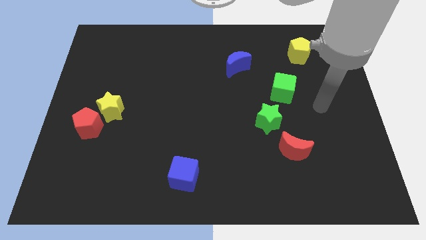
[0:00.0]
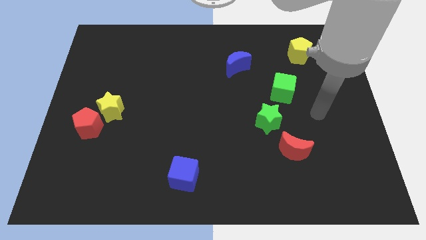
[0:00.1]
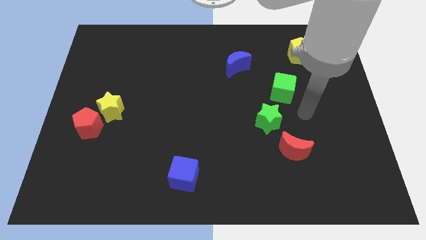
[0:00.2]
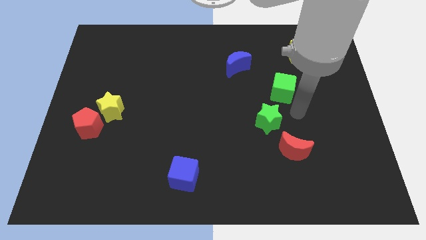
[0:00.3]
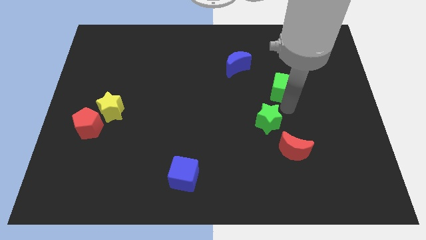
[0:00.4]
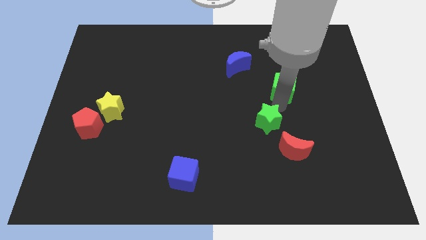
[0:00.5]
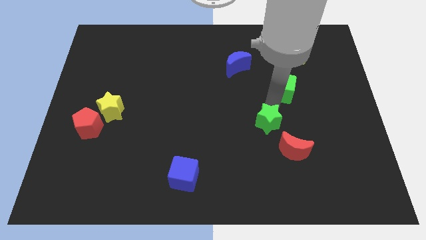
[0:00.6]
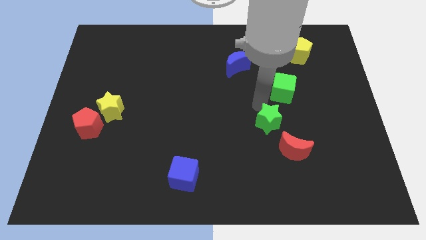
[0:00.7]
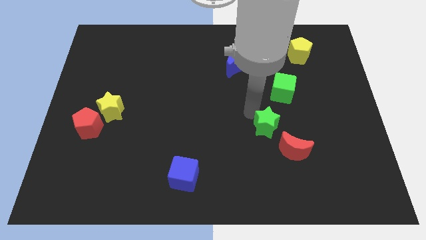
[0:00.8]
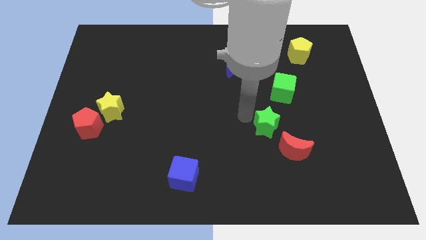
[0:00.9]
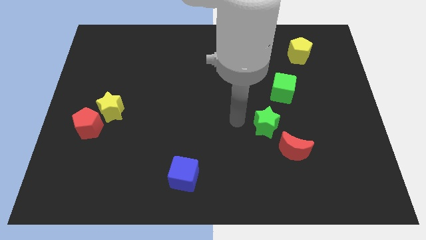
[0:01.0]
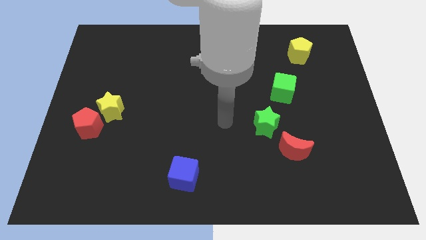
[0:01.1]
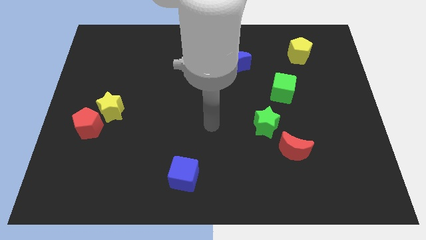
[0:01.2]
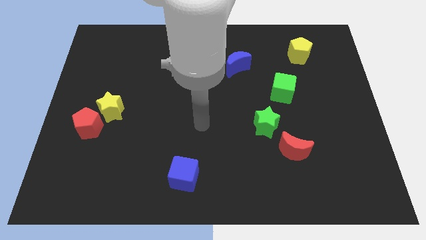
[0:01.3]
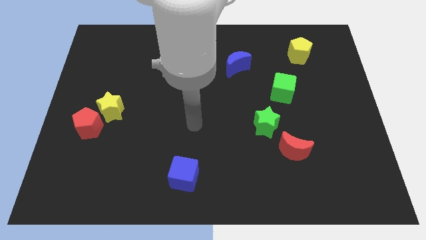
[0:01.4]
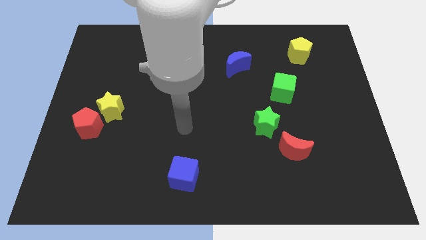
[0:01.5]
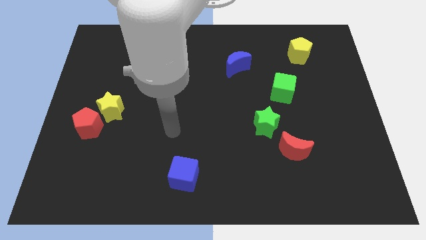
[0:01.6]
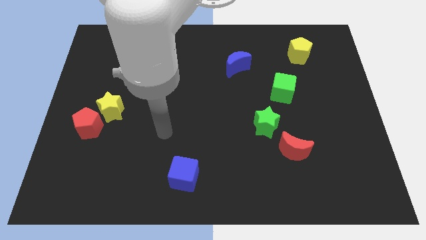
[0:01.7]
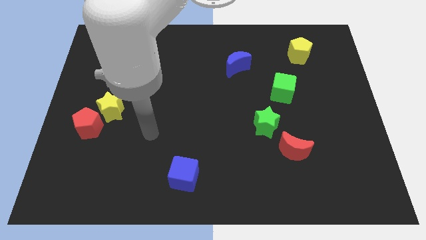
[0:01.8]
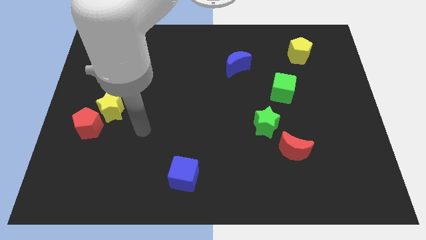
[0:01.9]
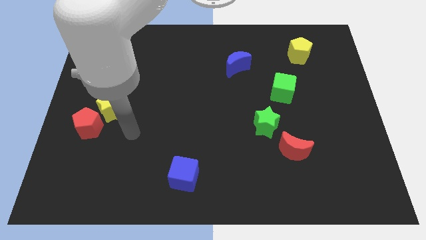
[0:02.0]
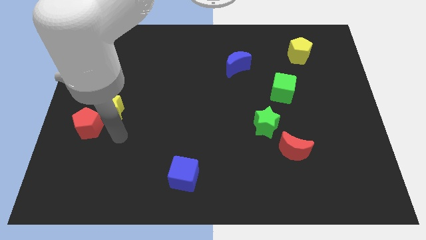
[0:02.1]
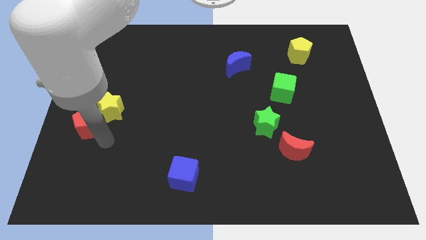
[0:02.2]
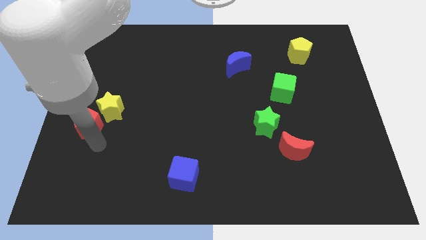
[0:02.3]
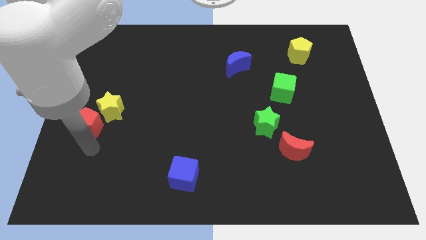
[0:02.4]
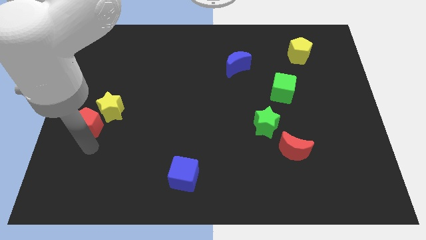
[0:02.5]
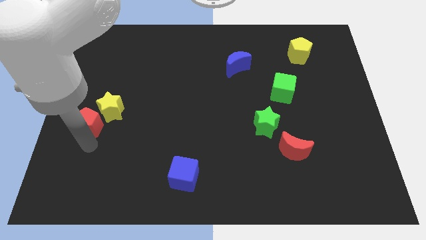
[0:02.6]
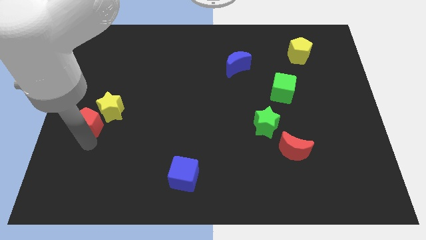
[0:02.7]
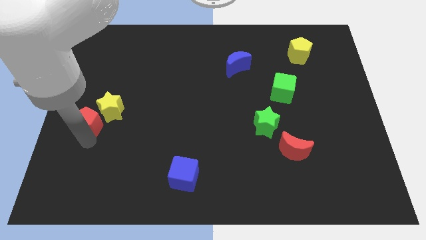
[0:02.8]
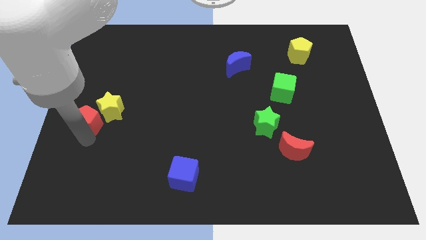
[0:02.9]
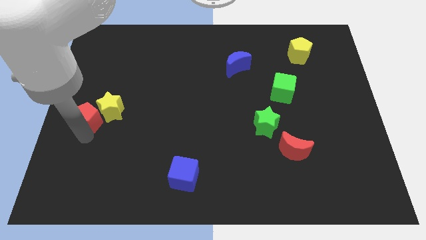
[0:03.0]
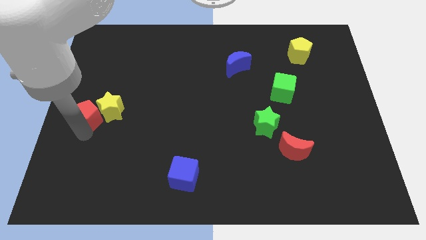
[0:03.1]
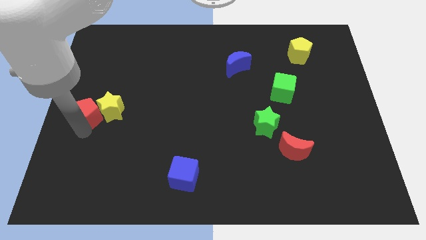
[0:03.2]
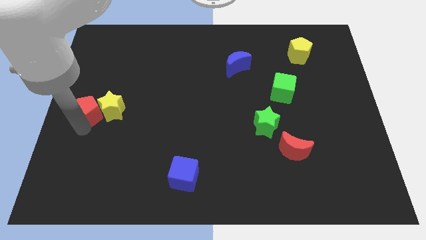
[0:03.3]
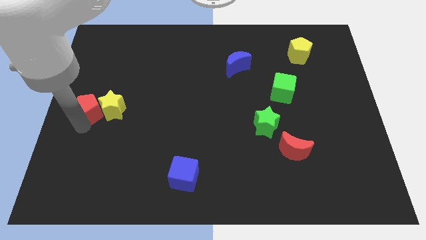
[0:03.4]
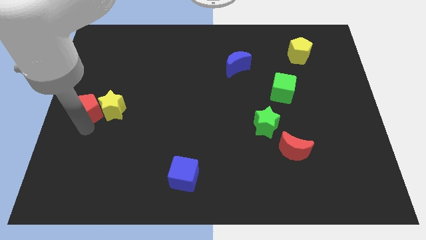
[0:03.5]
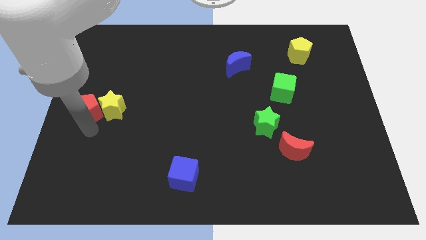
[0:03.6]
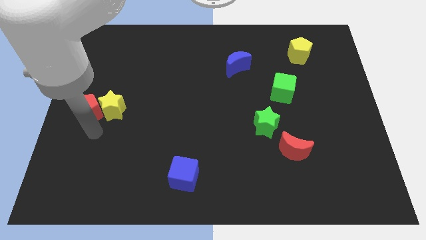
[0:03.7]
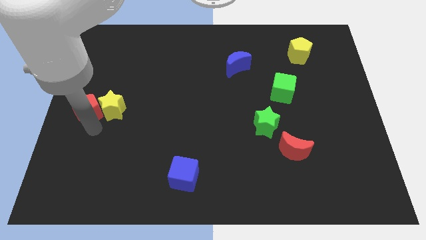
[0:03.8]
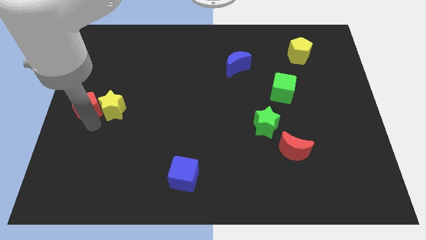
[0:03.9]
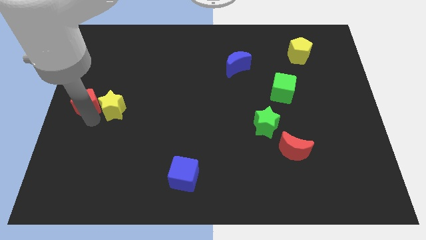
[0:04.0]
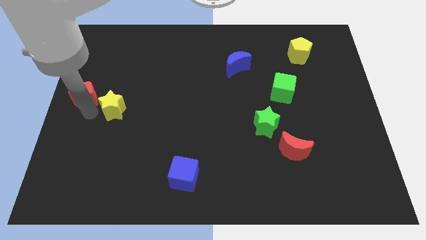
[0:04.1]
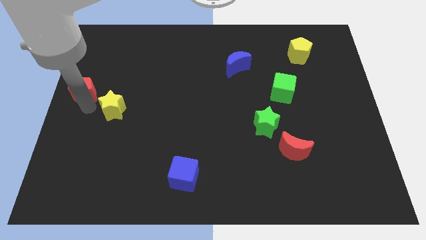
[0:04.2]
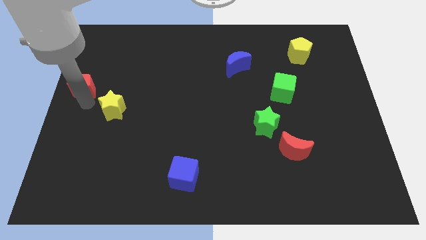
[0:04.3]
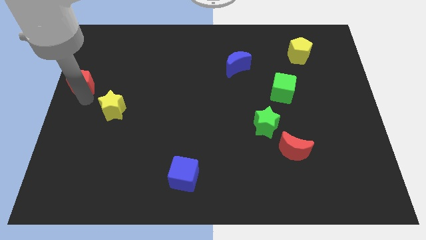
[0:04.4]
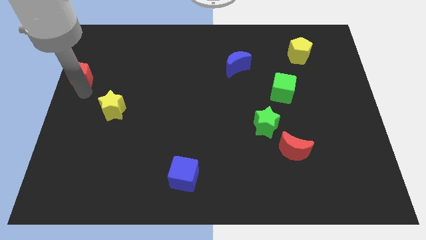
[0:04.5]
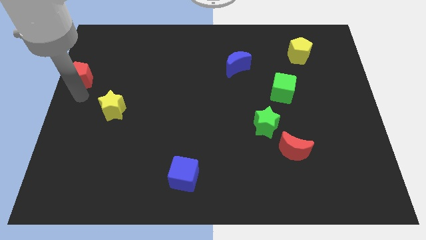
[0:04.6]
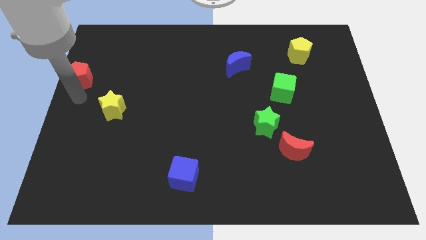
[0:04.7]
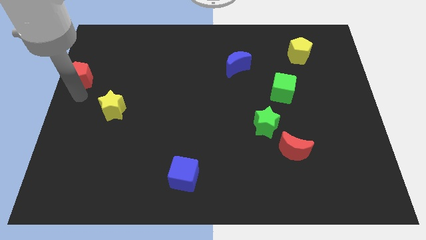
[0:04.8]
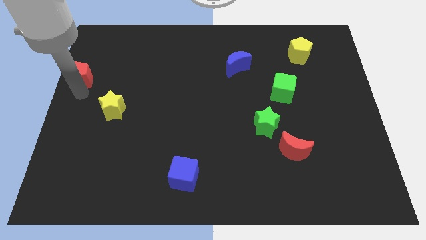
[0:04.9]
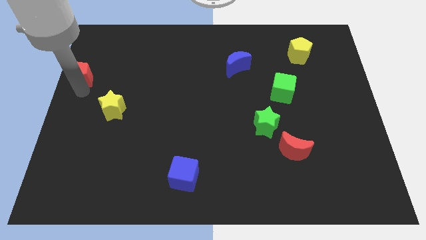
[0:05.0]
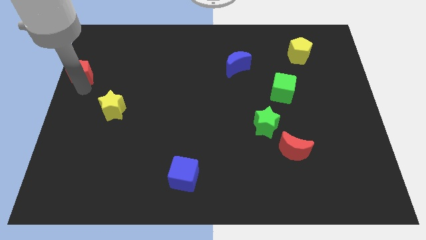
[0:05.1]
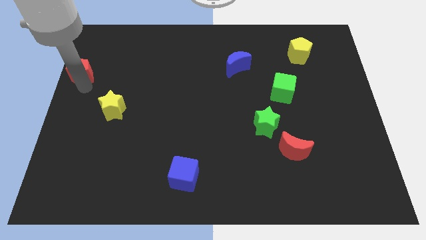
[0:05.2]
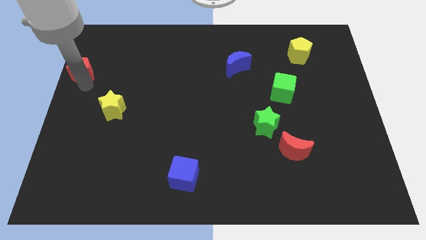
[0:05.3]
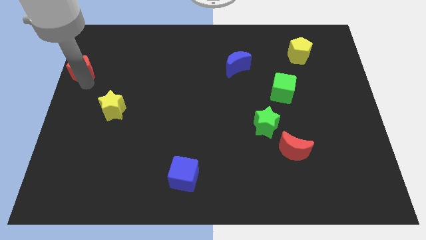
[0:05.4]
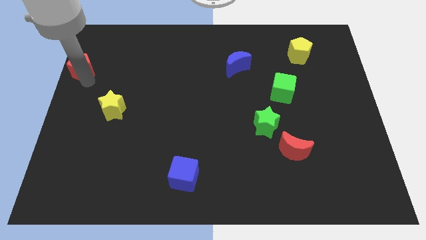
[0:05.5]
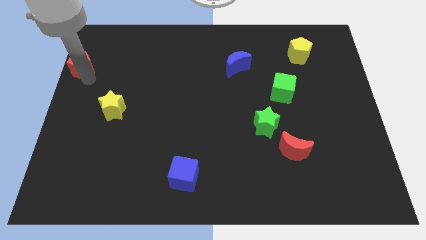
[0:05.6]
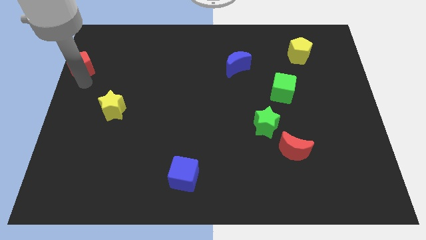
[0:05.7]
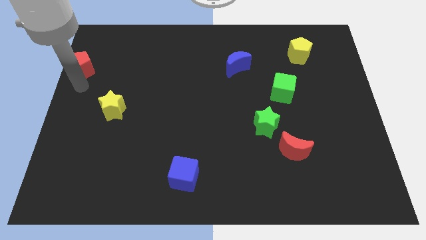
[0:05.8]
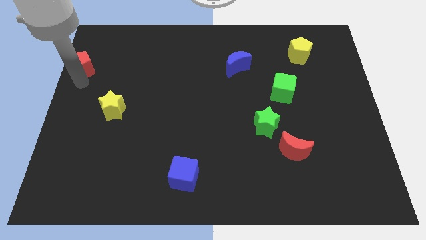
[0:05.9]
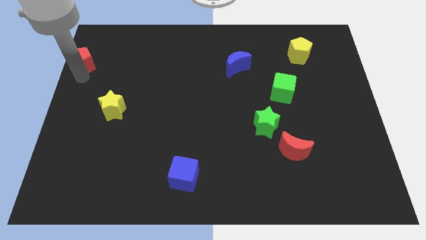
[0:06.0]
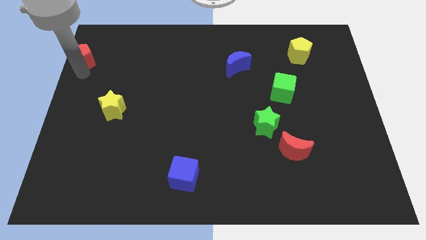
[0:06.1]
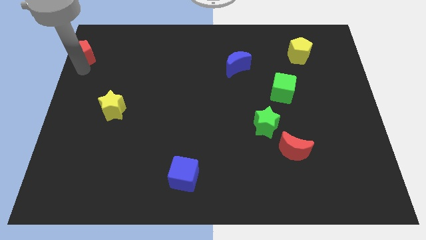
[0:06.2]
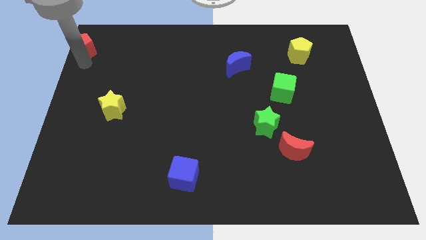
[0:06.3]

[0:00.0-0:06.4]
put the red pentagon to the top left of the board

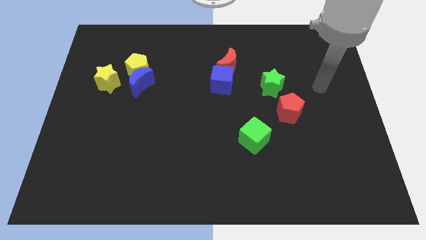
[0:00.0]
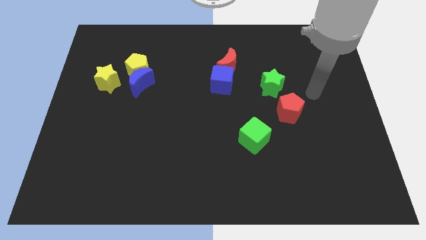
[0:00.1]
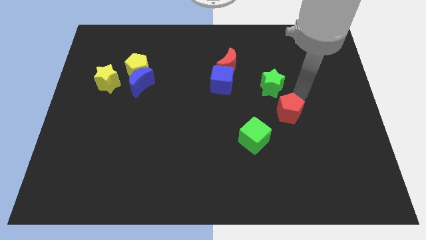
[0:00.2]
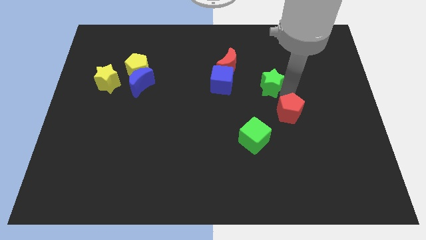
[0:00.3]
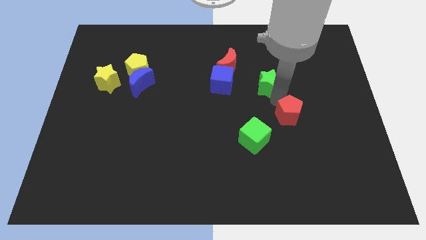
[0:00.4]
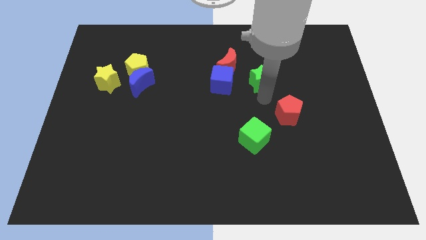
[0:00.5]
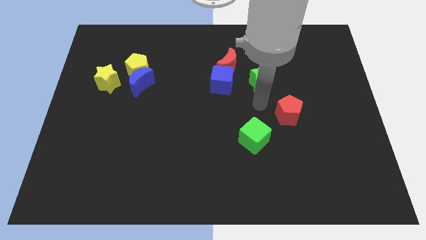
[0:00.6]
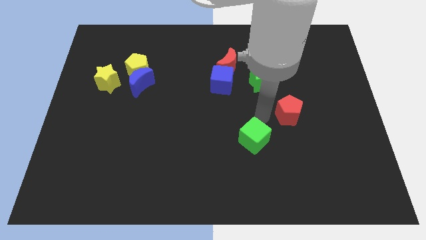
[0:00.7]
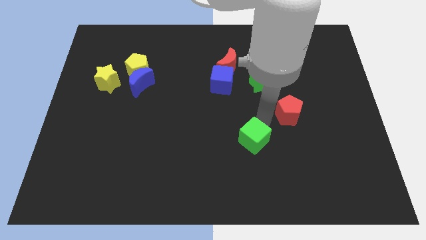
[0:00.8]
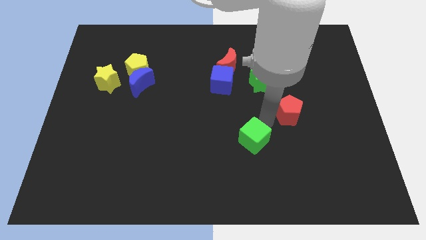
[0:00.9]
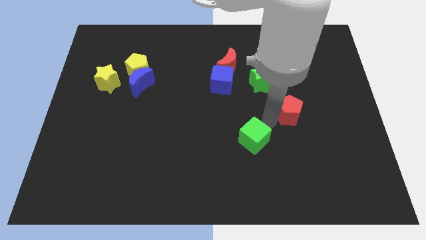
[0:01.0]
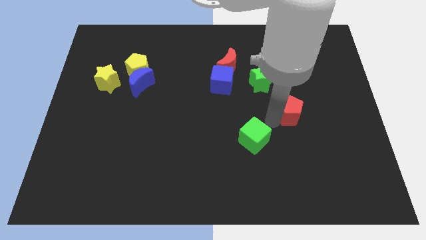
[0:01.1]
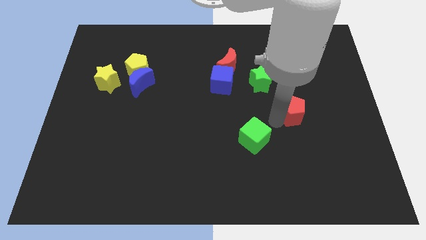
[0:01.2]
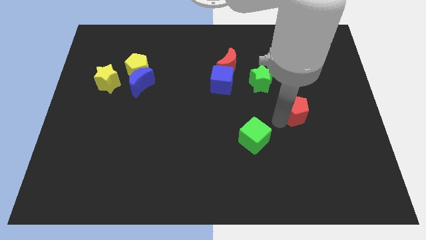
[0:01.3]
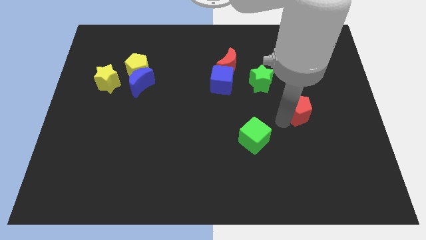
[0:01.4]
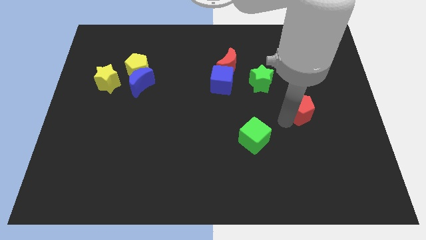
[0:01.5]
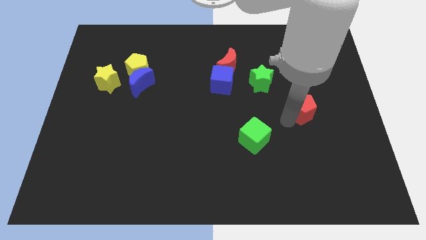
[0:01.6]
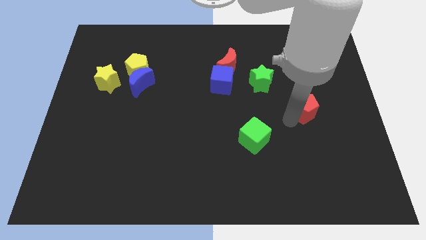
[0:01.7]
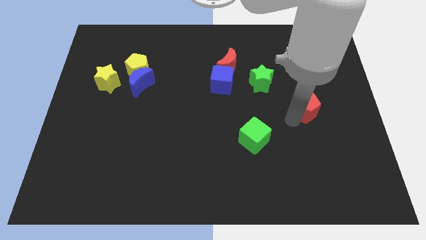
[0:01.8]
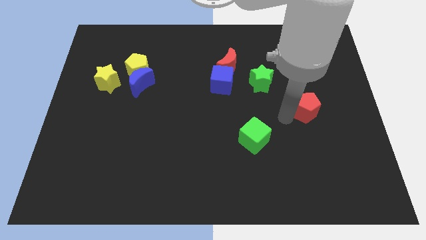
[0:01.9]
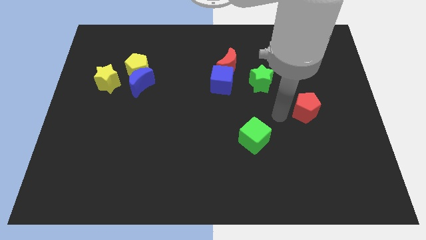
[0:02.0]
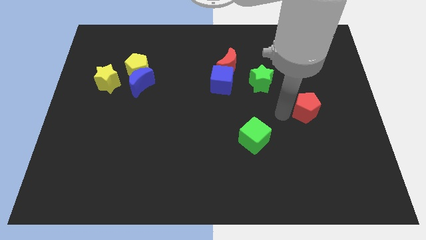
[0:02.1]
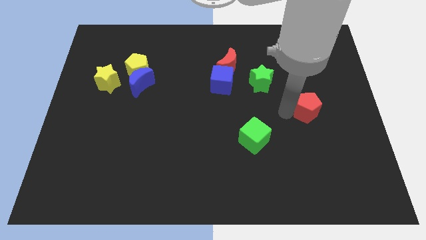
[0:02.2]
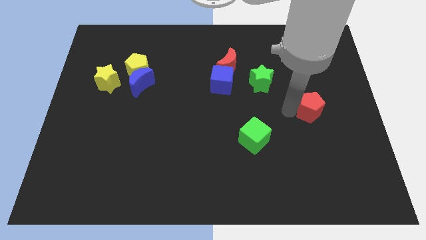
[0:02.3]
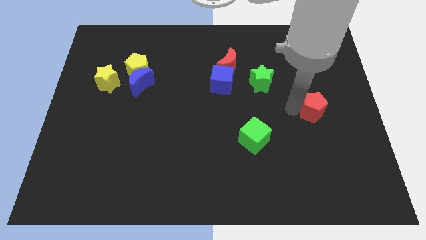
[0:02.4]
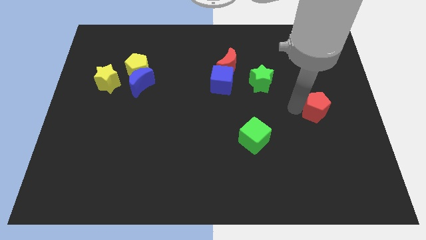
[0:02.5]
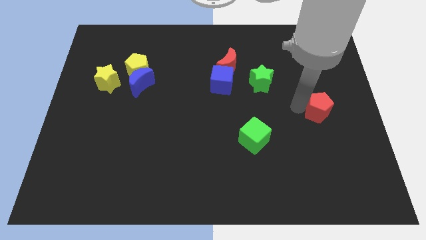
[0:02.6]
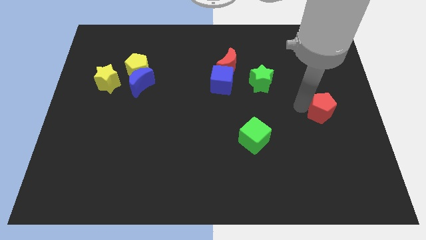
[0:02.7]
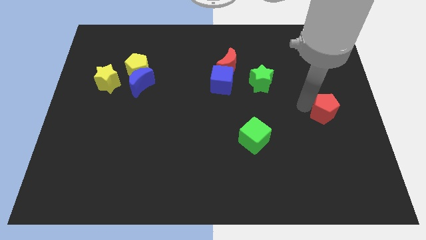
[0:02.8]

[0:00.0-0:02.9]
push the red pentagon to the right side of the board
